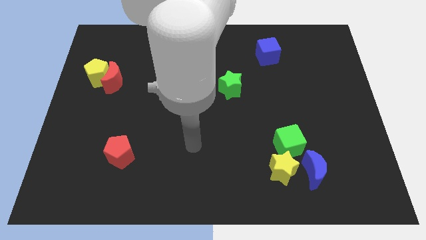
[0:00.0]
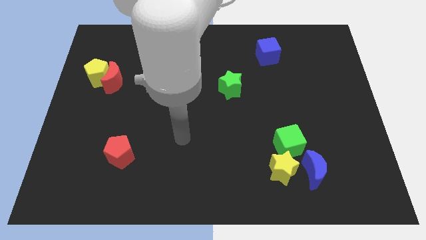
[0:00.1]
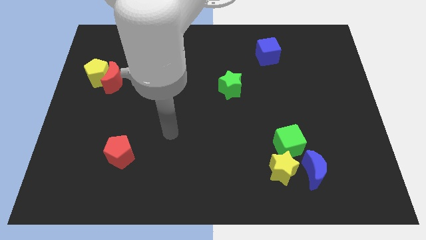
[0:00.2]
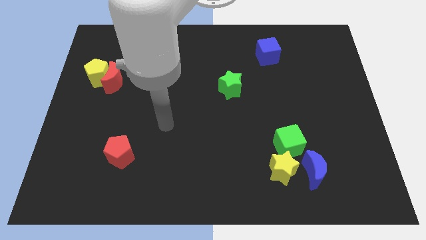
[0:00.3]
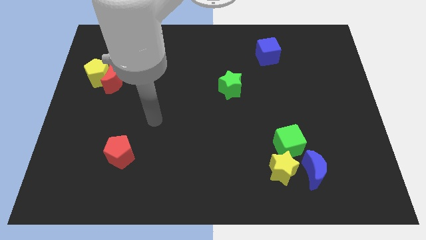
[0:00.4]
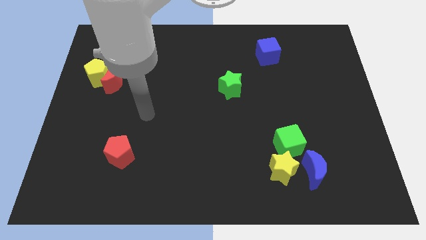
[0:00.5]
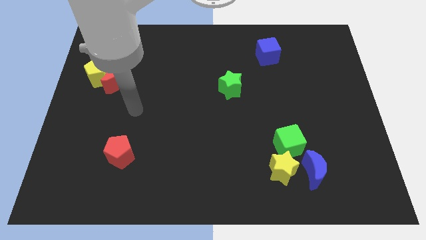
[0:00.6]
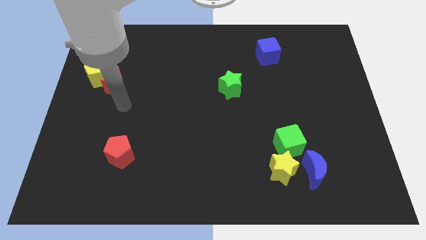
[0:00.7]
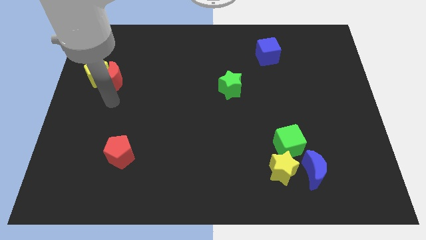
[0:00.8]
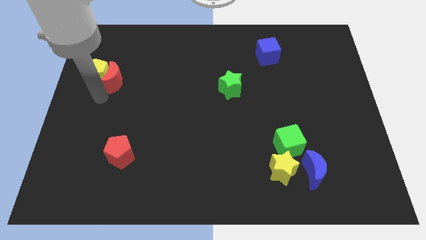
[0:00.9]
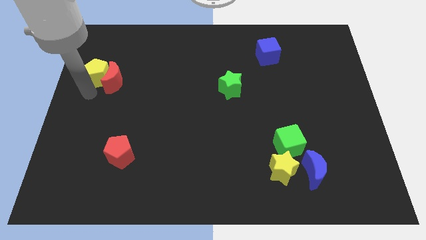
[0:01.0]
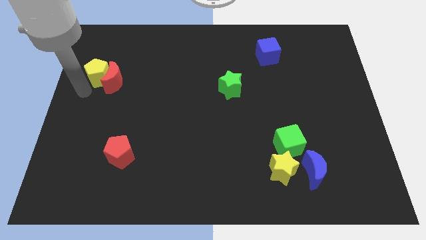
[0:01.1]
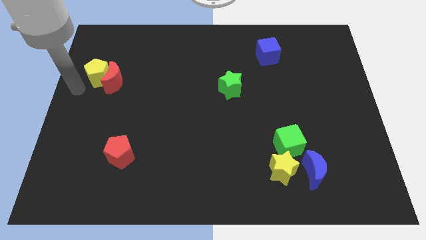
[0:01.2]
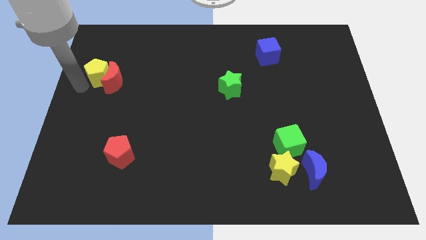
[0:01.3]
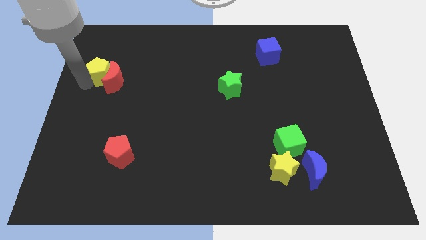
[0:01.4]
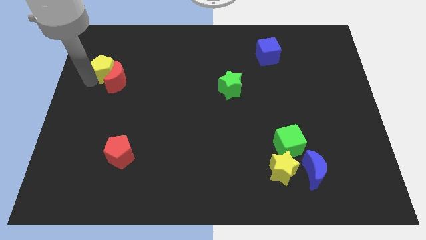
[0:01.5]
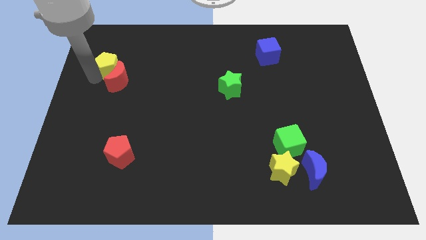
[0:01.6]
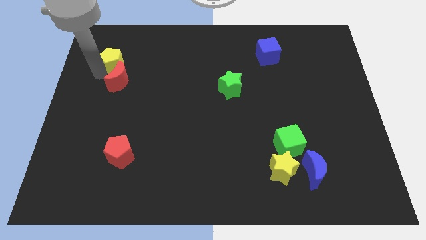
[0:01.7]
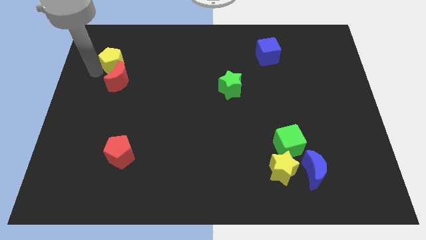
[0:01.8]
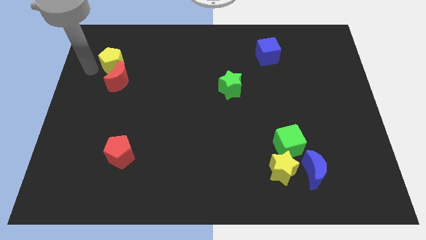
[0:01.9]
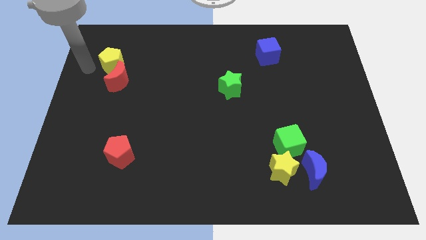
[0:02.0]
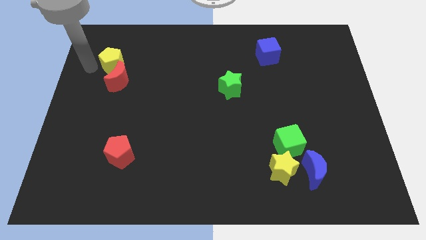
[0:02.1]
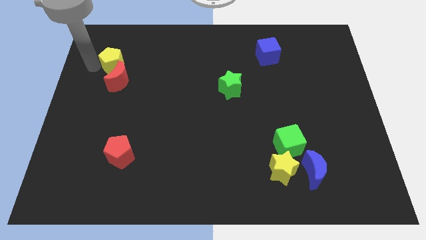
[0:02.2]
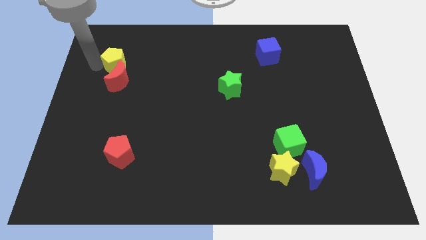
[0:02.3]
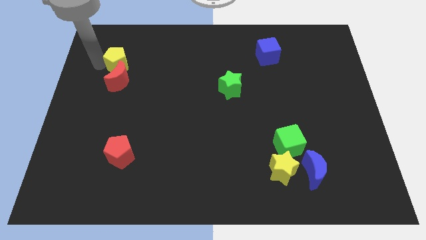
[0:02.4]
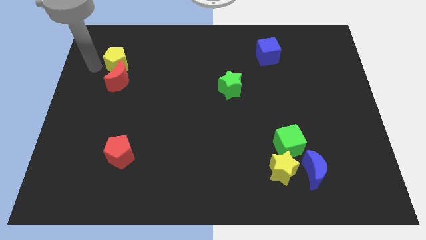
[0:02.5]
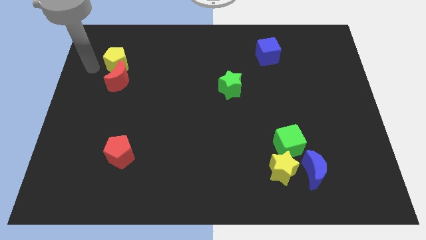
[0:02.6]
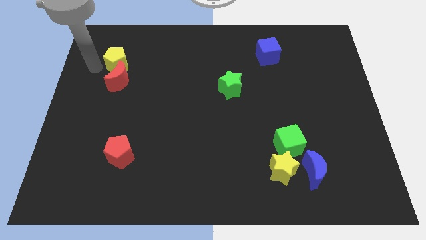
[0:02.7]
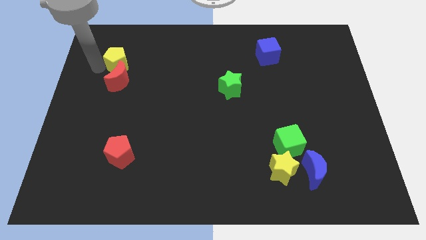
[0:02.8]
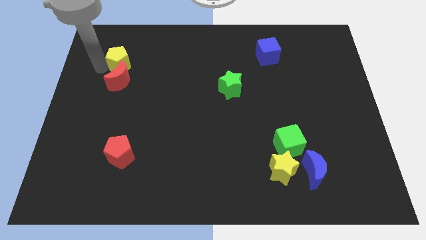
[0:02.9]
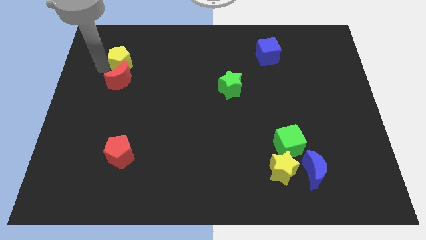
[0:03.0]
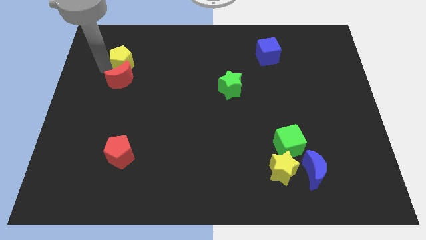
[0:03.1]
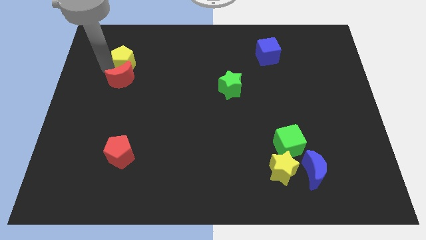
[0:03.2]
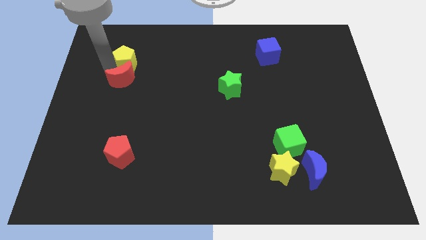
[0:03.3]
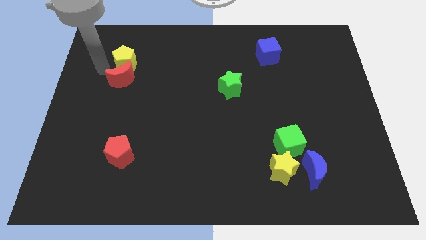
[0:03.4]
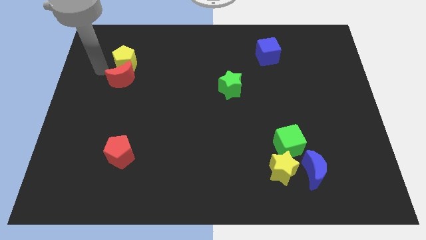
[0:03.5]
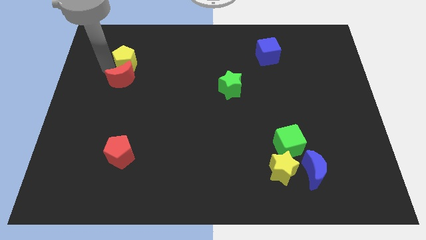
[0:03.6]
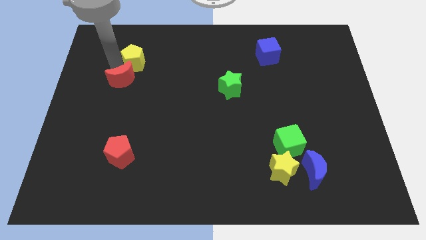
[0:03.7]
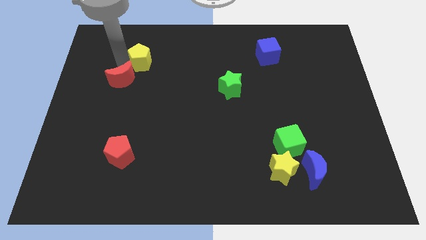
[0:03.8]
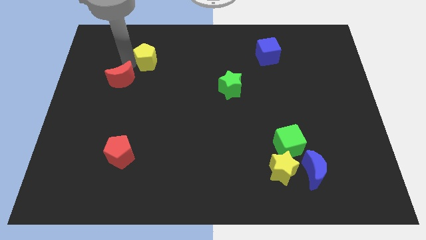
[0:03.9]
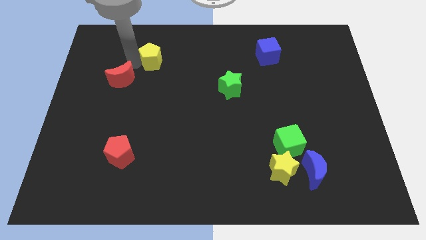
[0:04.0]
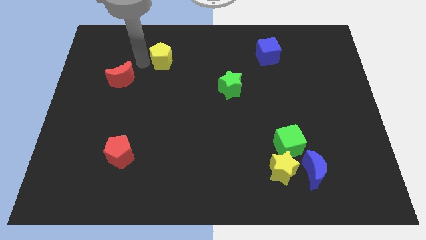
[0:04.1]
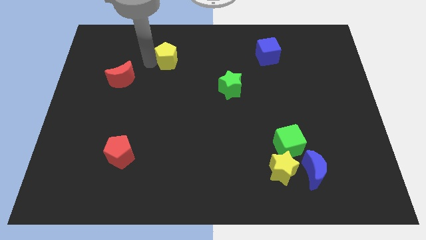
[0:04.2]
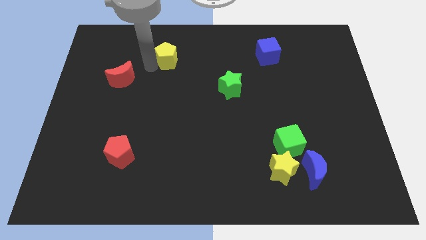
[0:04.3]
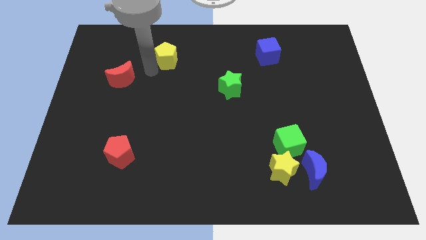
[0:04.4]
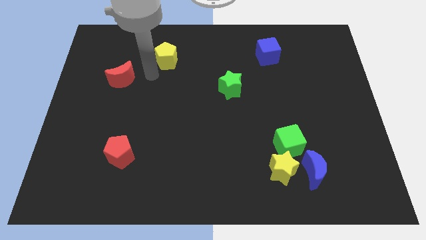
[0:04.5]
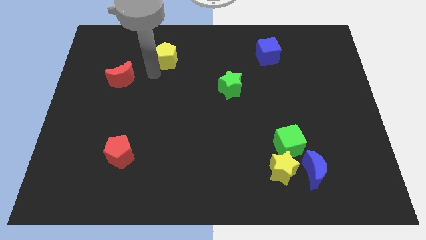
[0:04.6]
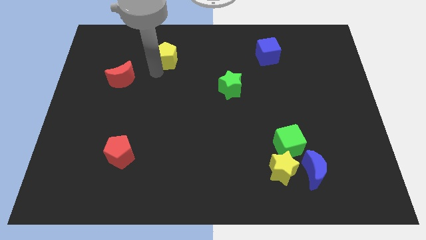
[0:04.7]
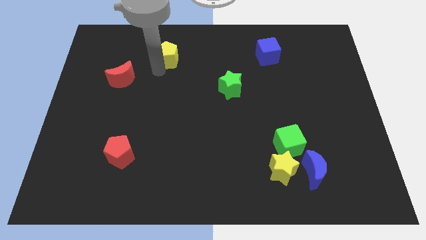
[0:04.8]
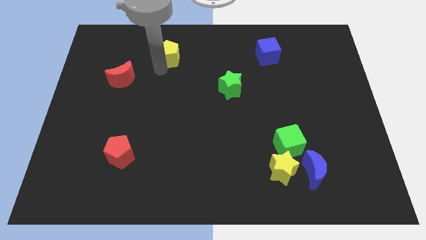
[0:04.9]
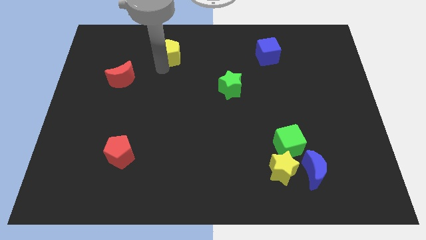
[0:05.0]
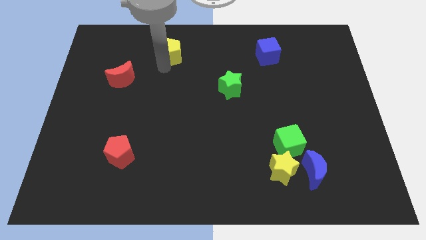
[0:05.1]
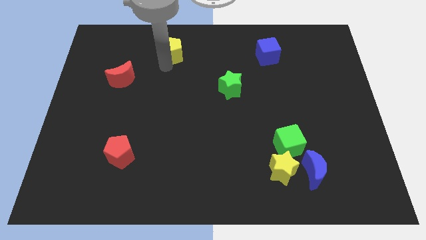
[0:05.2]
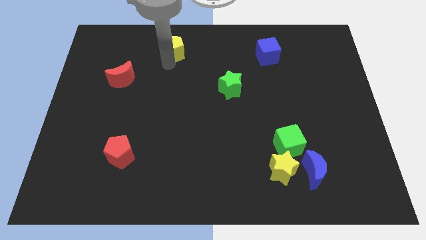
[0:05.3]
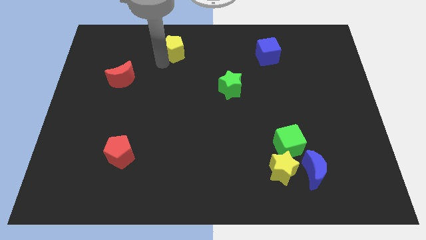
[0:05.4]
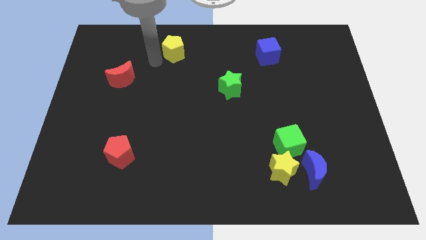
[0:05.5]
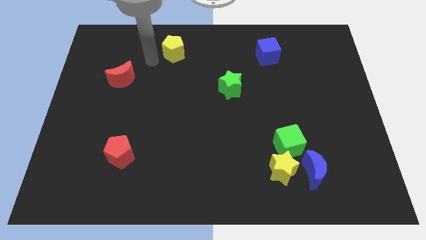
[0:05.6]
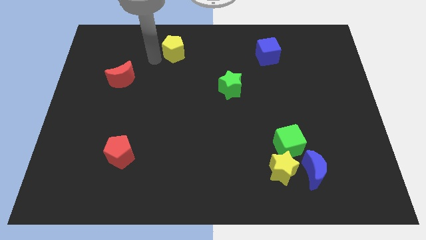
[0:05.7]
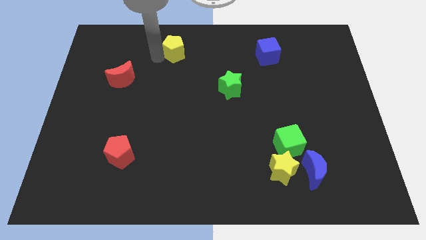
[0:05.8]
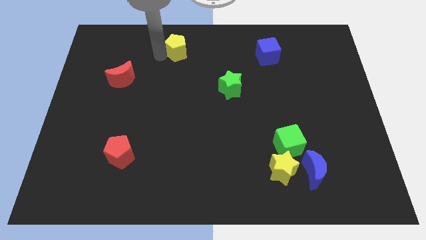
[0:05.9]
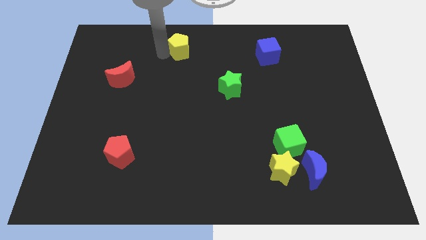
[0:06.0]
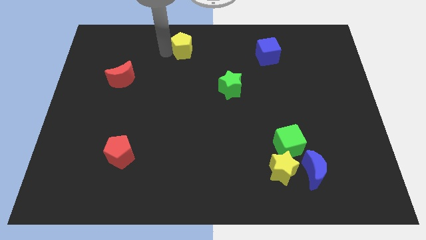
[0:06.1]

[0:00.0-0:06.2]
move the yellow pentagon to the top side
